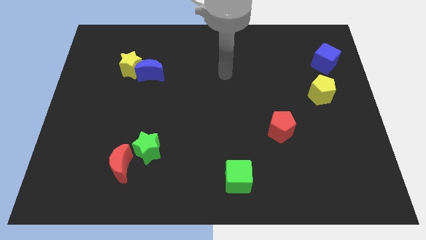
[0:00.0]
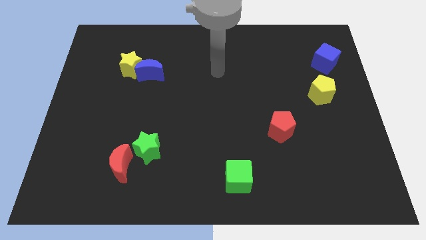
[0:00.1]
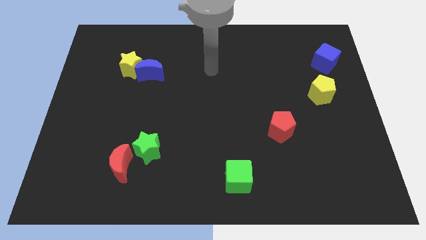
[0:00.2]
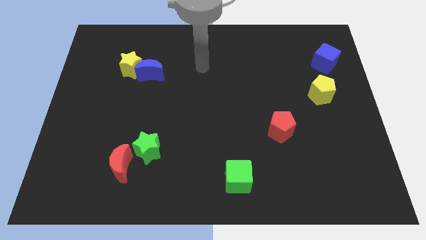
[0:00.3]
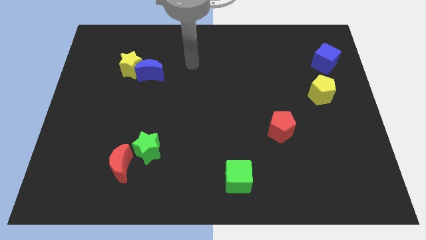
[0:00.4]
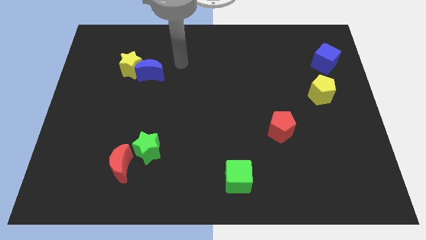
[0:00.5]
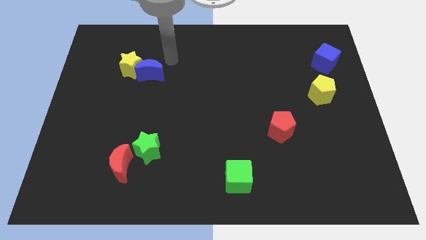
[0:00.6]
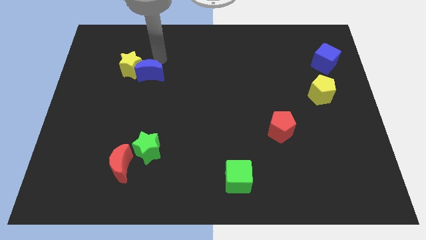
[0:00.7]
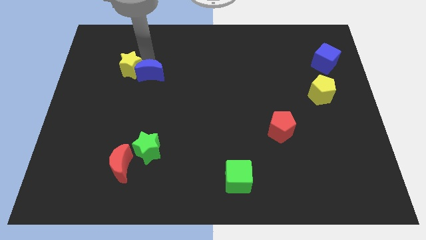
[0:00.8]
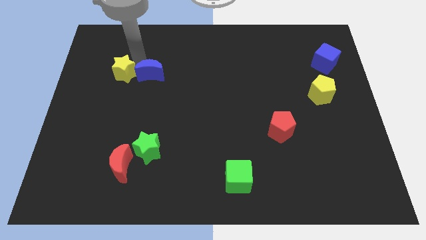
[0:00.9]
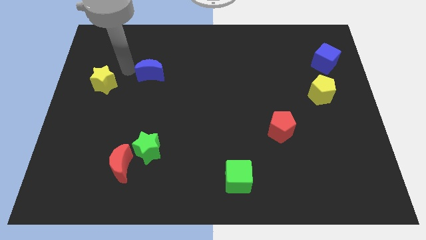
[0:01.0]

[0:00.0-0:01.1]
separate the blue moon from the yellow star

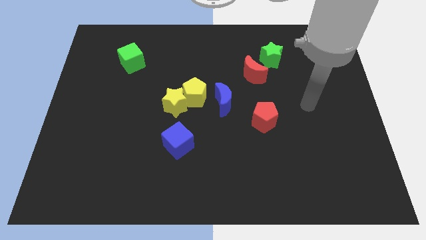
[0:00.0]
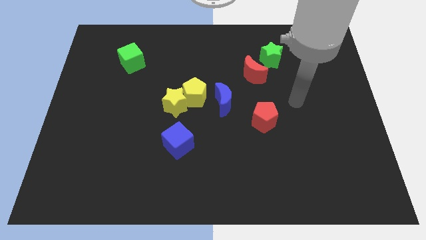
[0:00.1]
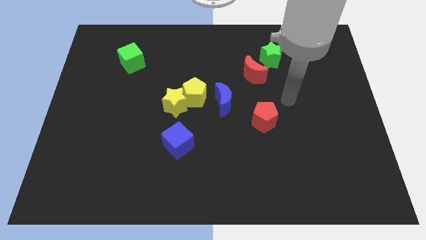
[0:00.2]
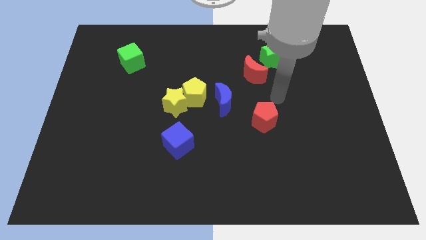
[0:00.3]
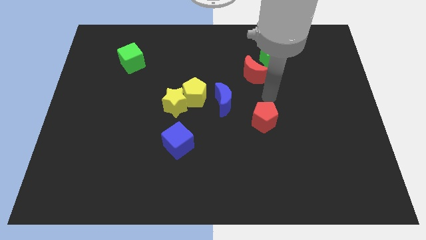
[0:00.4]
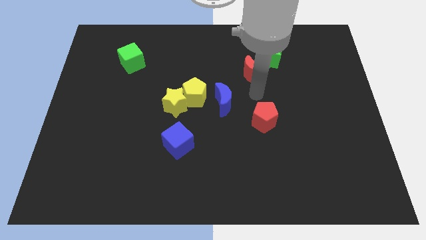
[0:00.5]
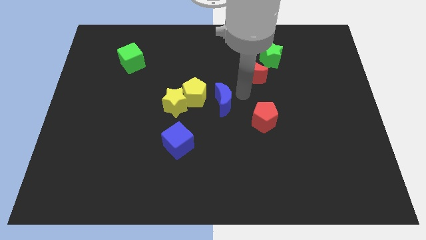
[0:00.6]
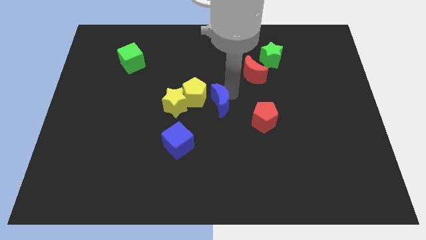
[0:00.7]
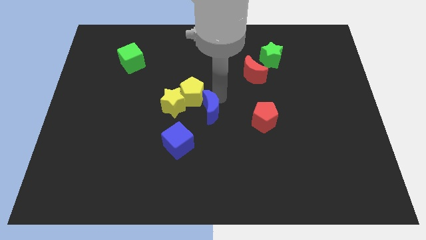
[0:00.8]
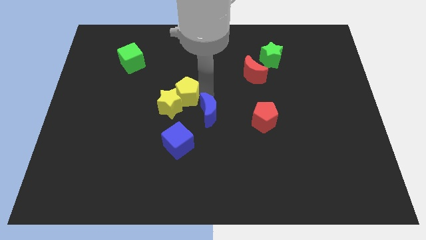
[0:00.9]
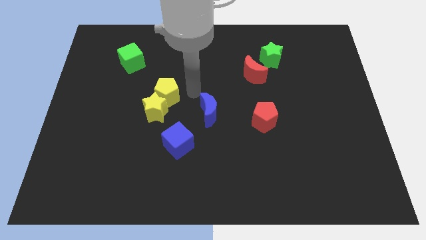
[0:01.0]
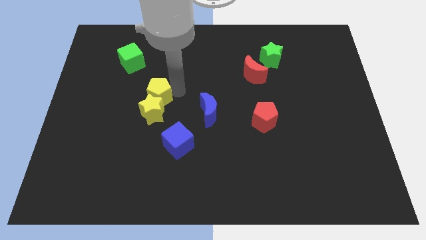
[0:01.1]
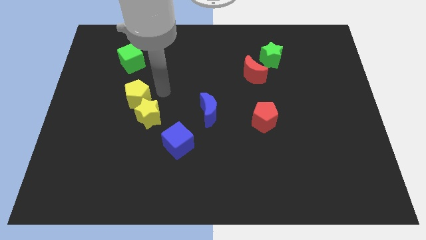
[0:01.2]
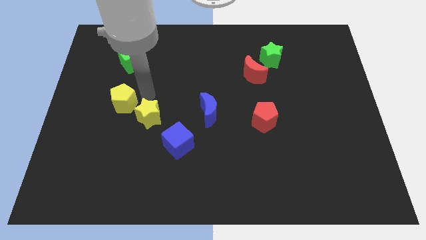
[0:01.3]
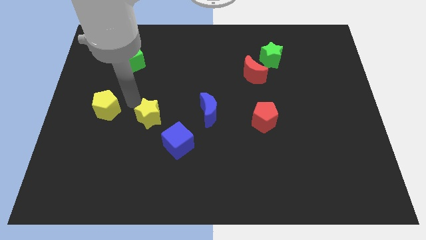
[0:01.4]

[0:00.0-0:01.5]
move the yellow star away from the yellow pentagon

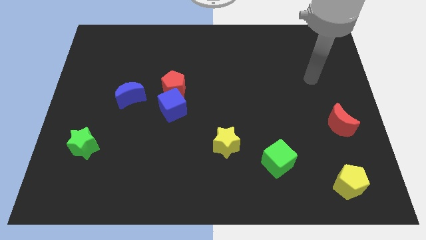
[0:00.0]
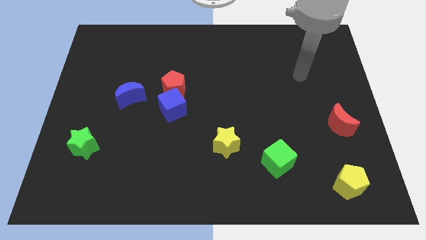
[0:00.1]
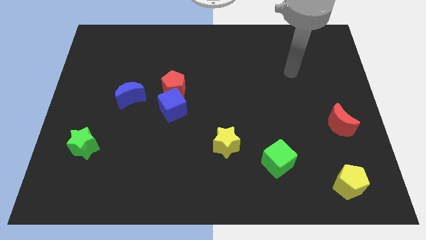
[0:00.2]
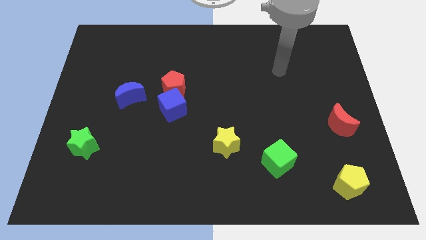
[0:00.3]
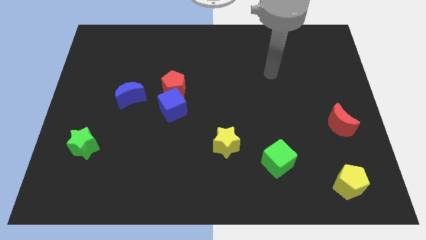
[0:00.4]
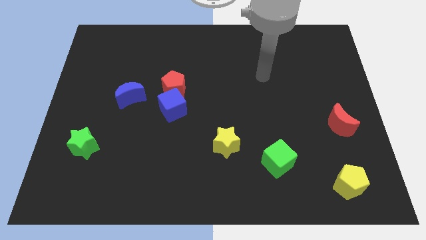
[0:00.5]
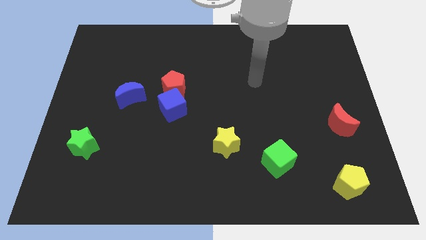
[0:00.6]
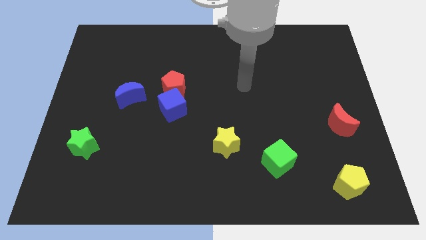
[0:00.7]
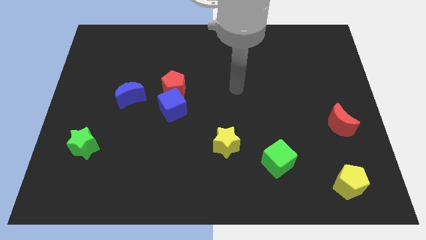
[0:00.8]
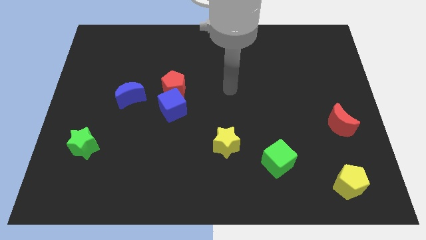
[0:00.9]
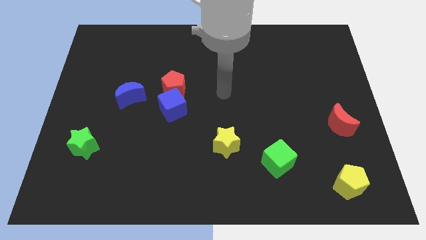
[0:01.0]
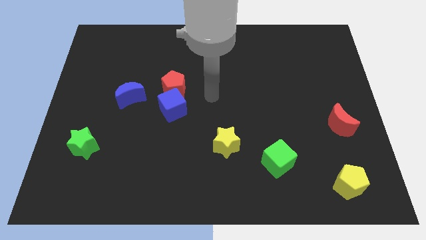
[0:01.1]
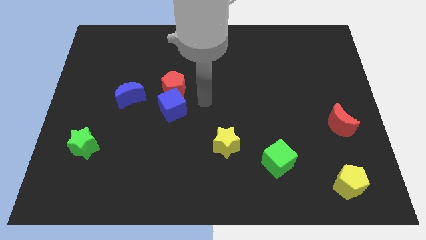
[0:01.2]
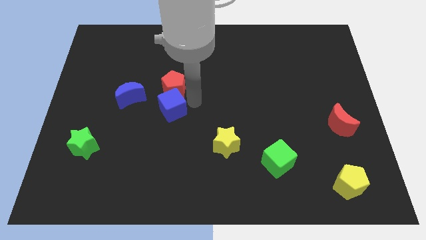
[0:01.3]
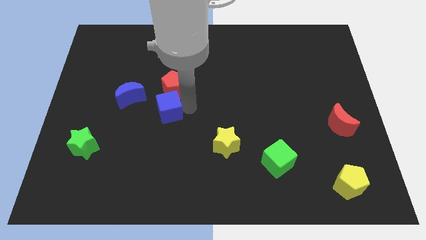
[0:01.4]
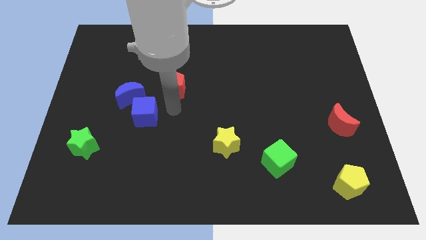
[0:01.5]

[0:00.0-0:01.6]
pull the red pentagon apart from the blue cube

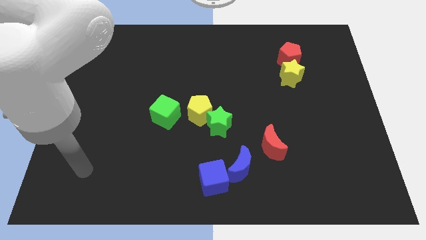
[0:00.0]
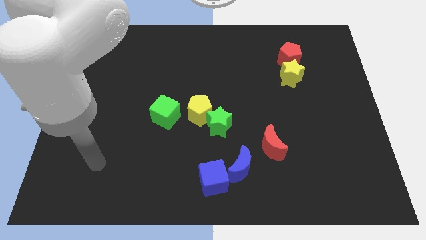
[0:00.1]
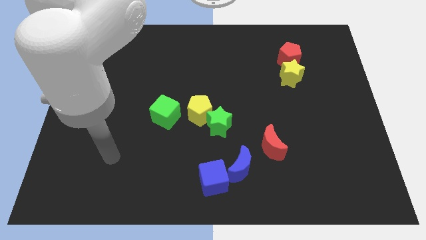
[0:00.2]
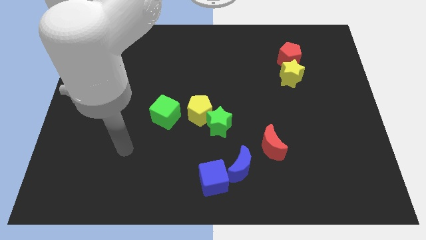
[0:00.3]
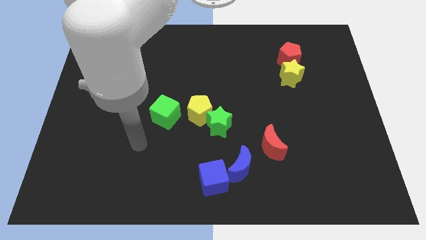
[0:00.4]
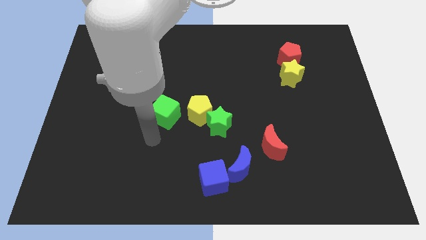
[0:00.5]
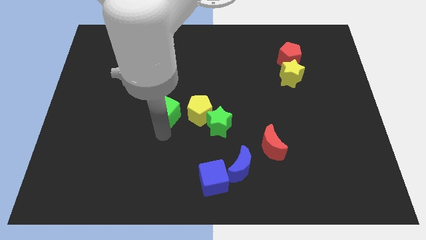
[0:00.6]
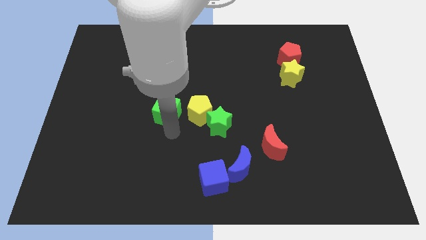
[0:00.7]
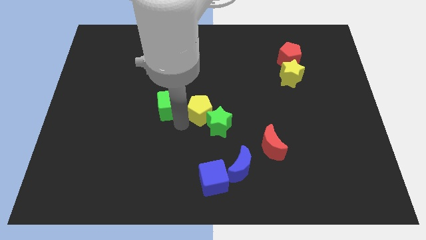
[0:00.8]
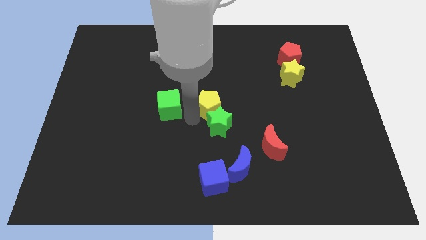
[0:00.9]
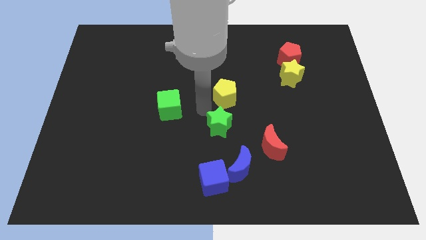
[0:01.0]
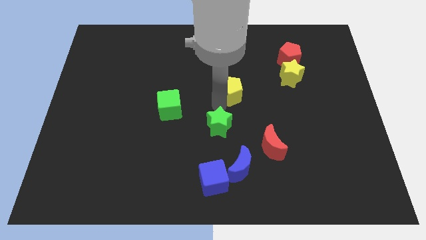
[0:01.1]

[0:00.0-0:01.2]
move the green star away from the yellow pentagon

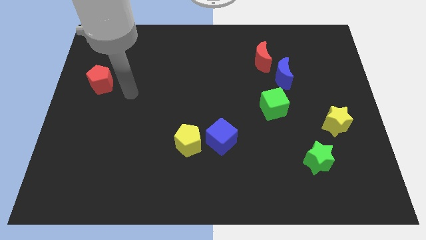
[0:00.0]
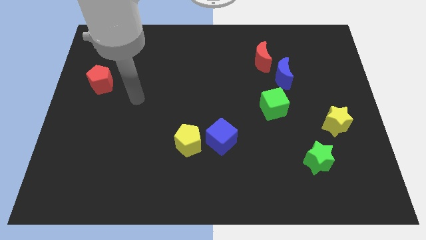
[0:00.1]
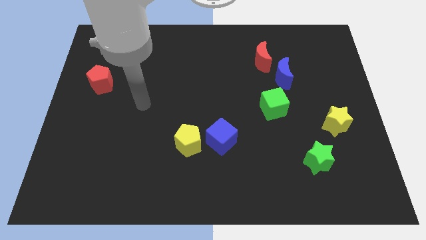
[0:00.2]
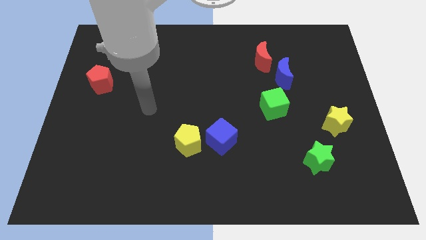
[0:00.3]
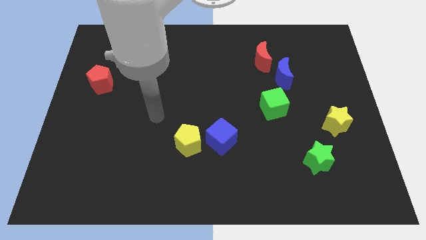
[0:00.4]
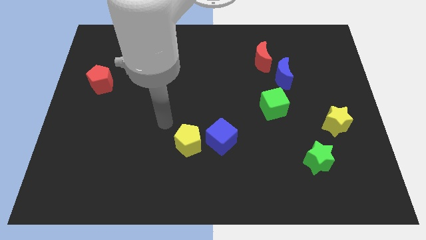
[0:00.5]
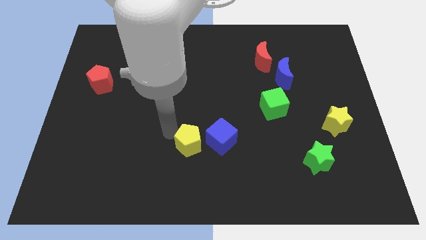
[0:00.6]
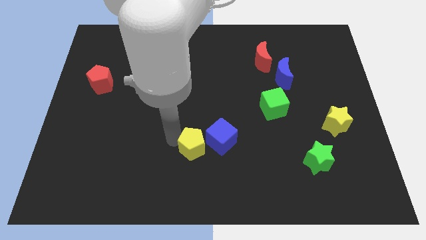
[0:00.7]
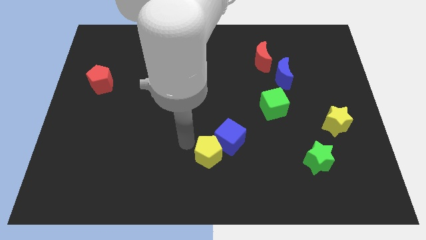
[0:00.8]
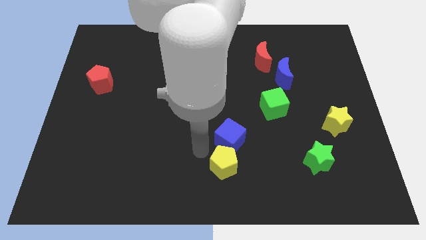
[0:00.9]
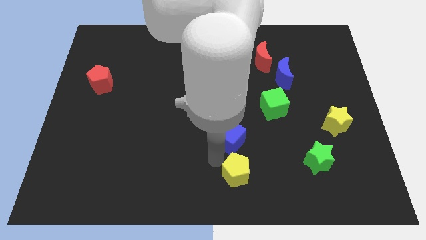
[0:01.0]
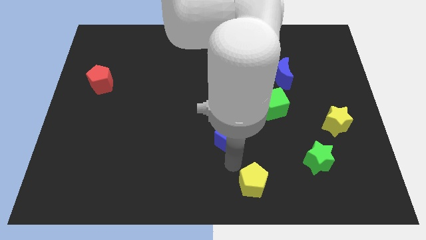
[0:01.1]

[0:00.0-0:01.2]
pull the blue cube apart from the yellow pentagon

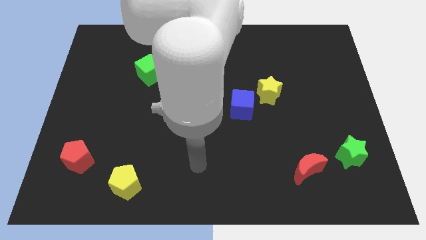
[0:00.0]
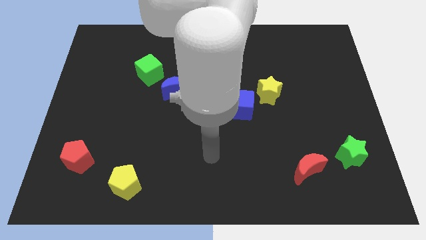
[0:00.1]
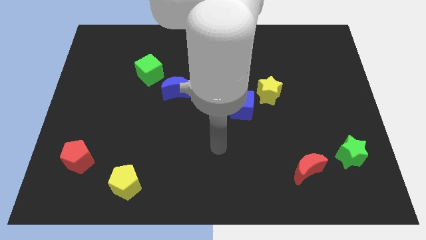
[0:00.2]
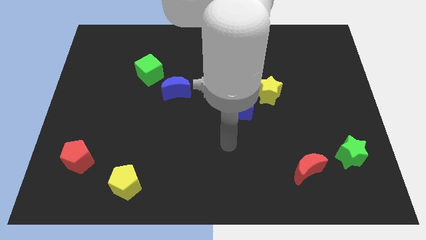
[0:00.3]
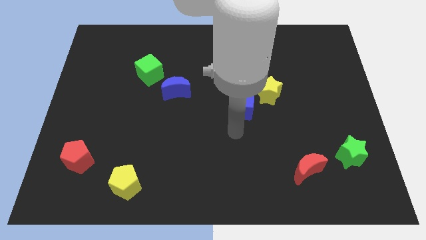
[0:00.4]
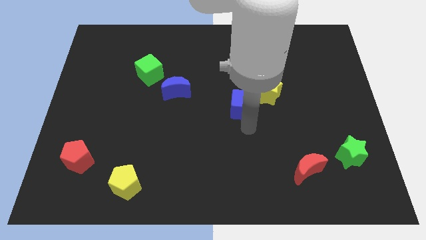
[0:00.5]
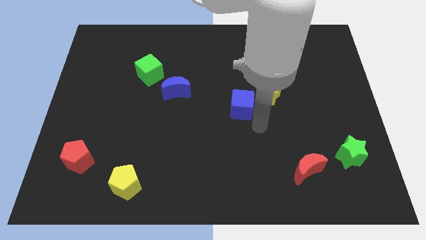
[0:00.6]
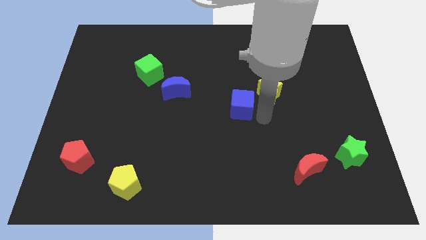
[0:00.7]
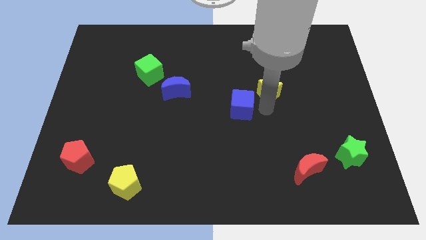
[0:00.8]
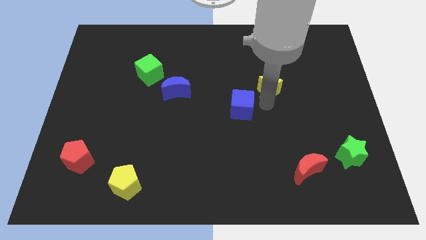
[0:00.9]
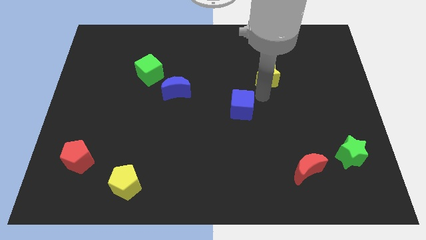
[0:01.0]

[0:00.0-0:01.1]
pull the blue cube apart from the yellow star

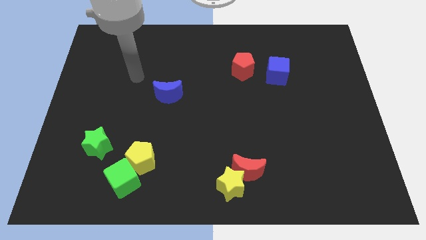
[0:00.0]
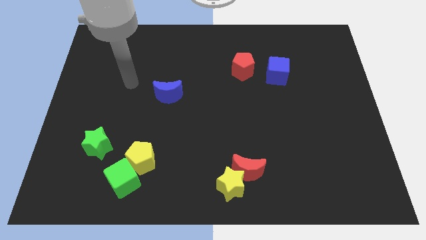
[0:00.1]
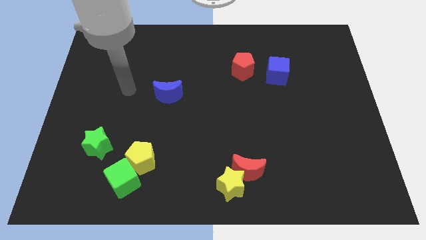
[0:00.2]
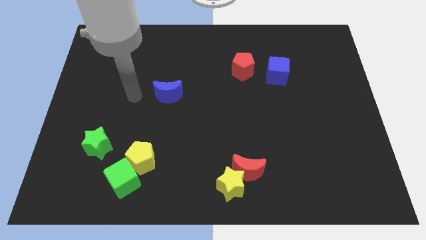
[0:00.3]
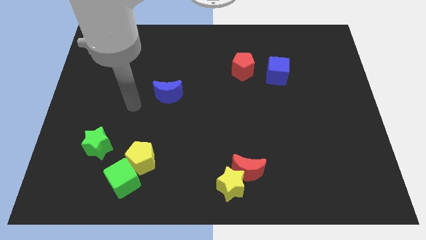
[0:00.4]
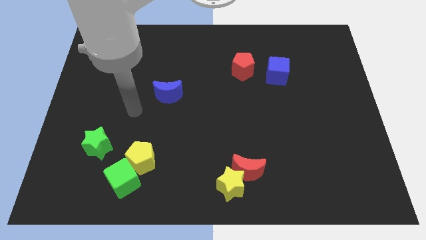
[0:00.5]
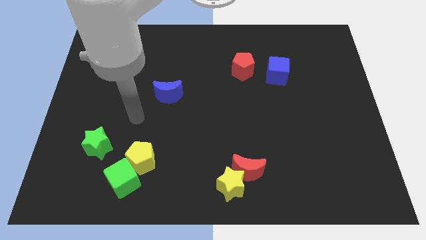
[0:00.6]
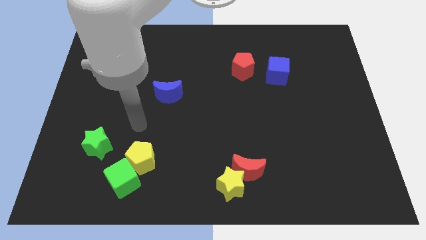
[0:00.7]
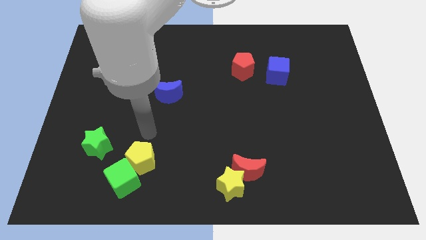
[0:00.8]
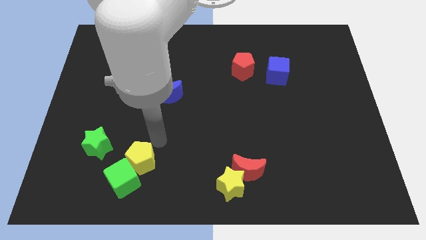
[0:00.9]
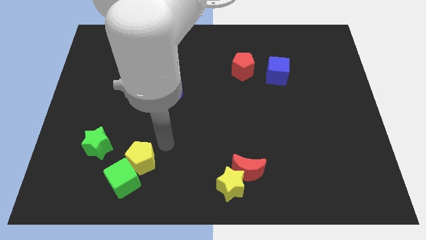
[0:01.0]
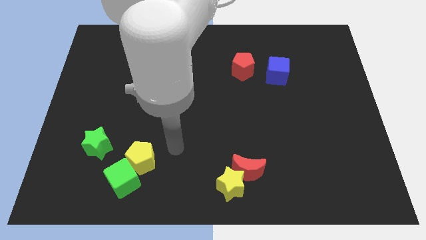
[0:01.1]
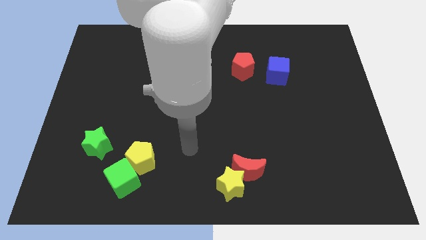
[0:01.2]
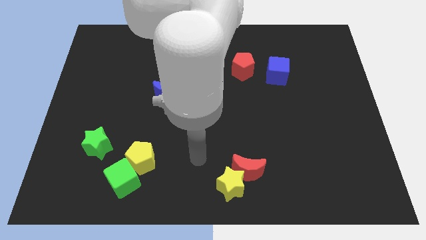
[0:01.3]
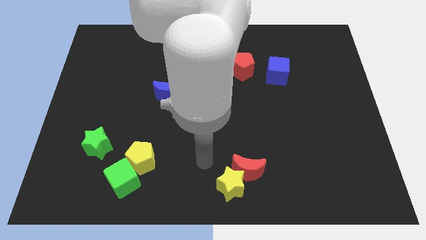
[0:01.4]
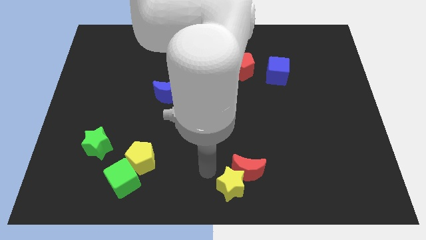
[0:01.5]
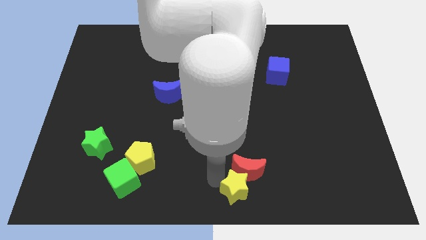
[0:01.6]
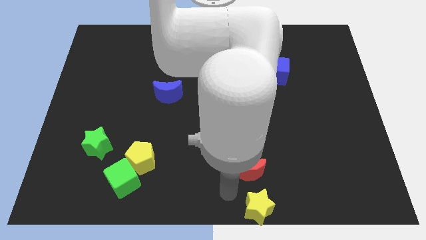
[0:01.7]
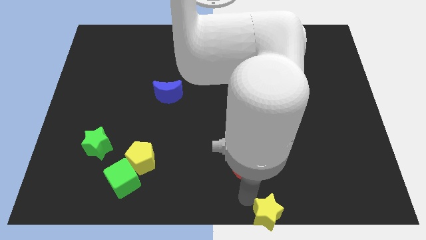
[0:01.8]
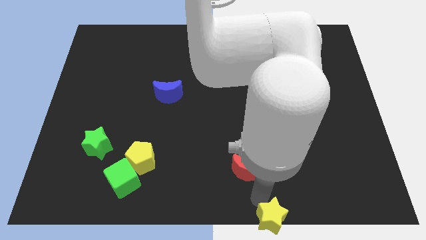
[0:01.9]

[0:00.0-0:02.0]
pull the red moon apart from the yellow star
